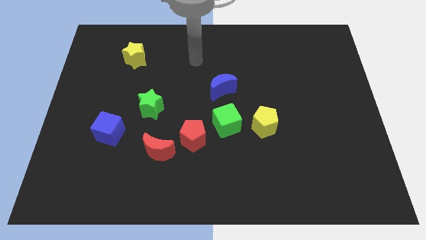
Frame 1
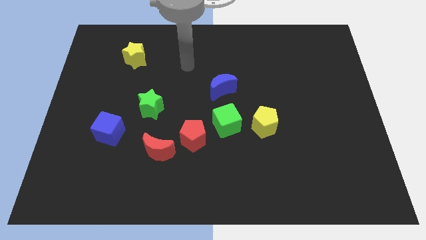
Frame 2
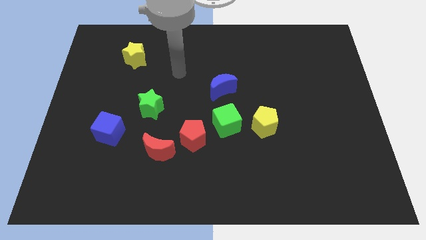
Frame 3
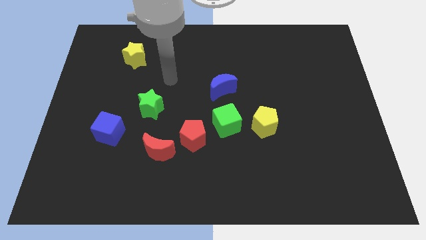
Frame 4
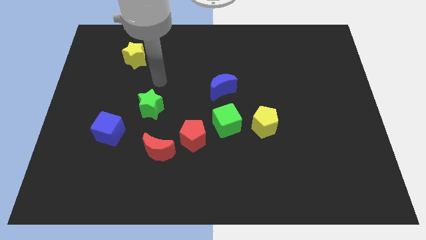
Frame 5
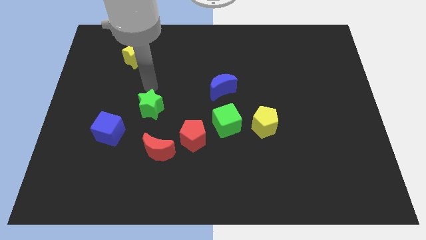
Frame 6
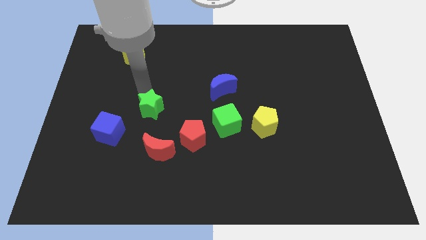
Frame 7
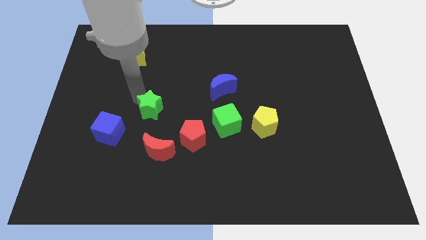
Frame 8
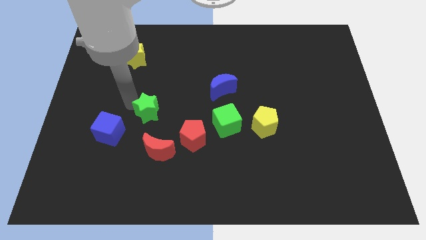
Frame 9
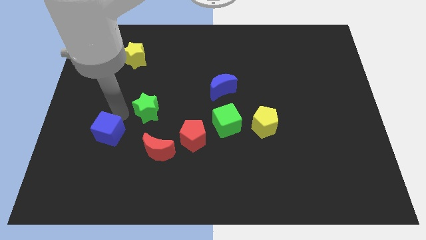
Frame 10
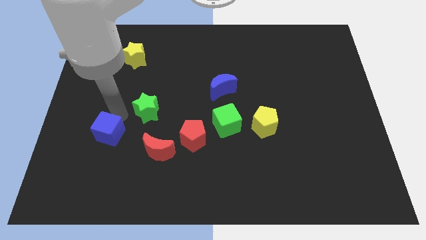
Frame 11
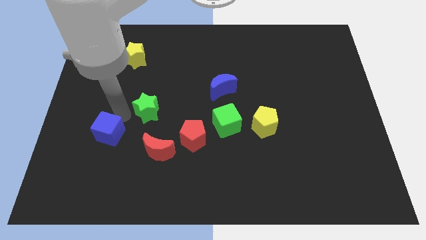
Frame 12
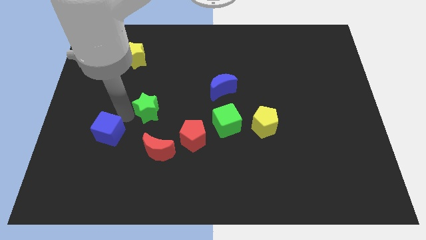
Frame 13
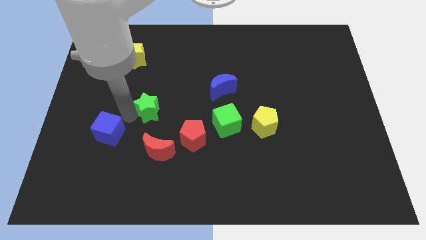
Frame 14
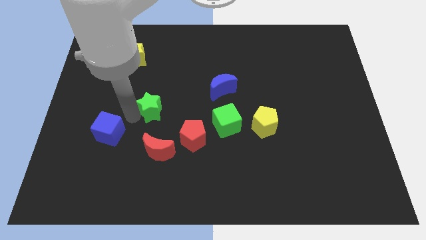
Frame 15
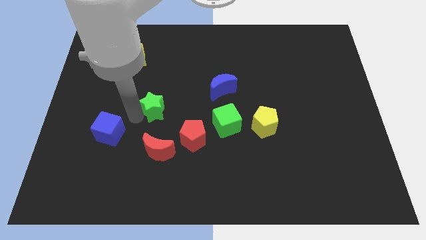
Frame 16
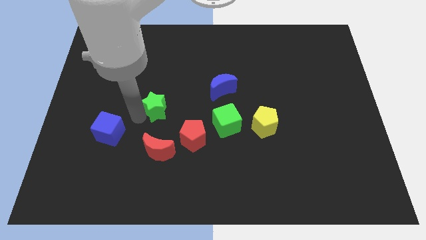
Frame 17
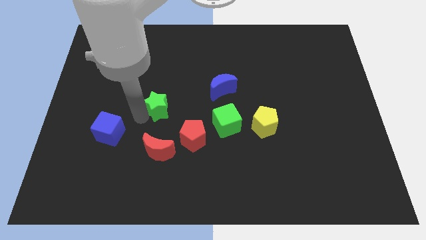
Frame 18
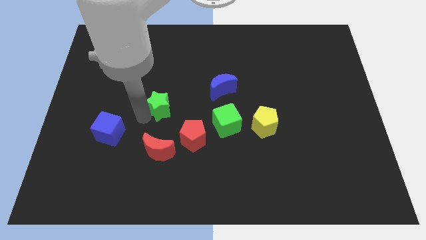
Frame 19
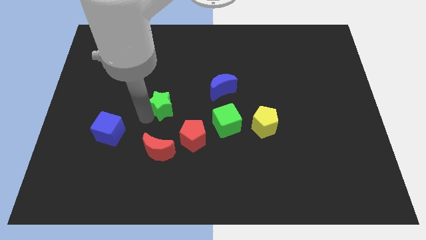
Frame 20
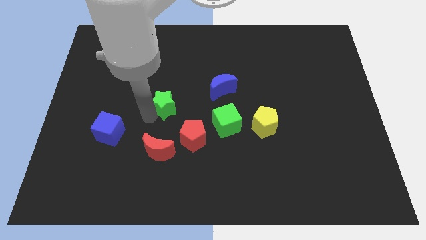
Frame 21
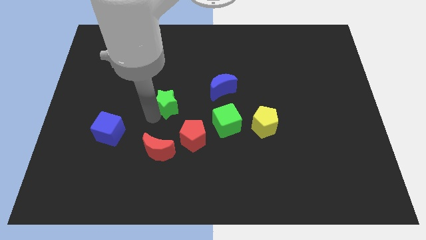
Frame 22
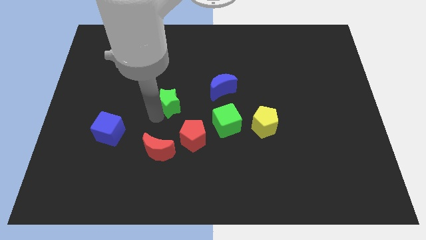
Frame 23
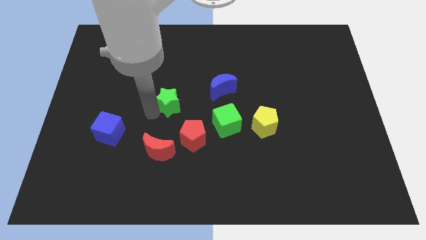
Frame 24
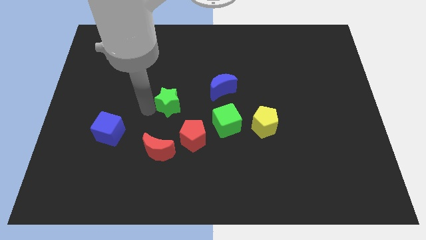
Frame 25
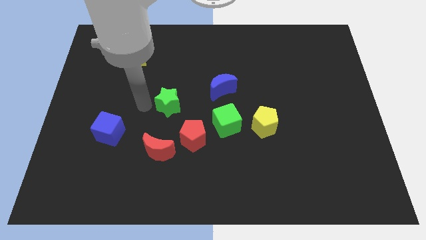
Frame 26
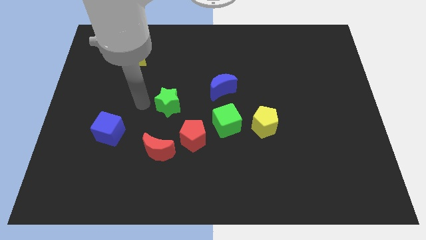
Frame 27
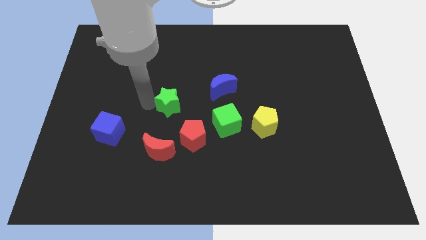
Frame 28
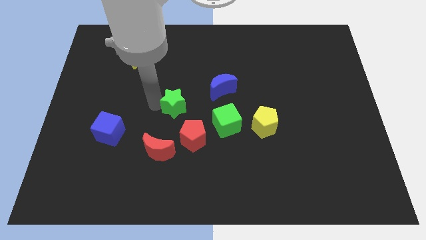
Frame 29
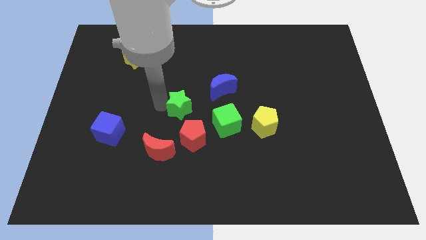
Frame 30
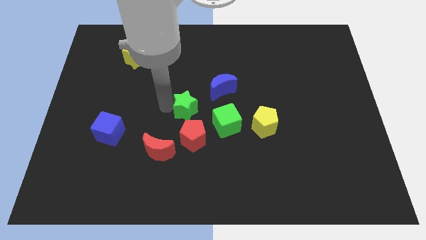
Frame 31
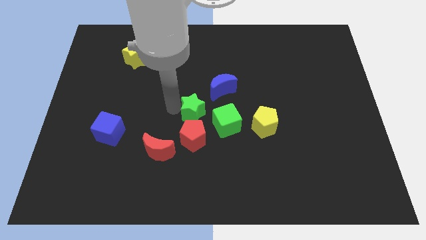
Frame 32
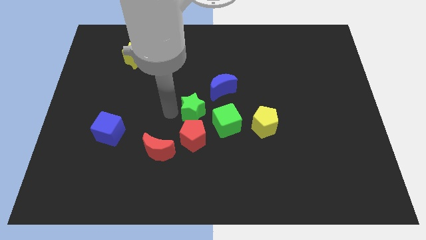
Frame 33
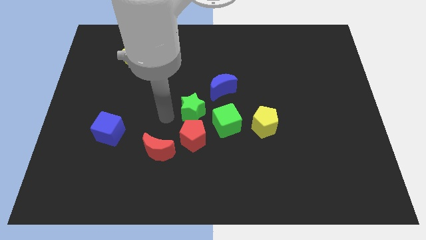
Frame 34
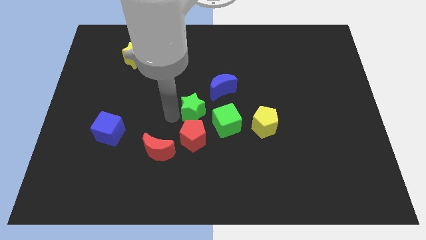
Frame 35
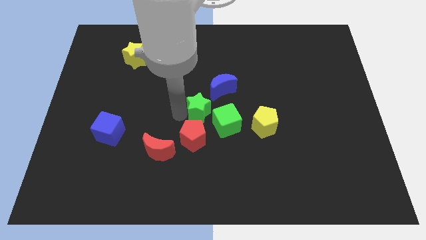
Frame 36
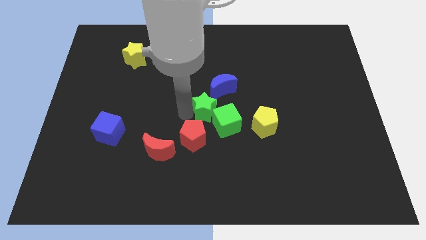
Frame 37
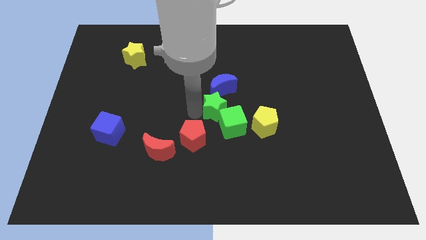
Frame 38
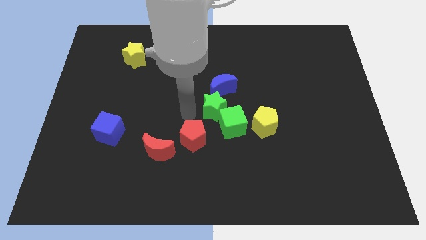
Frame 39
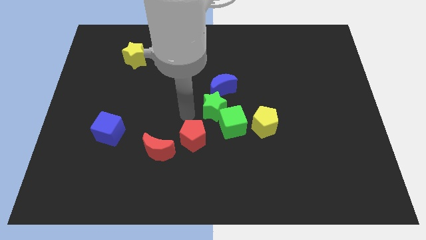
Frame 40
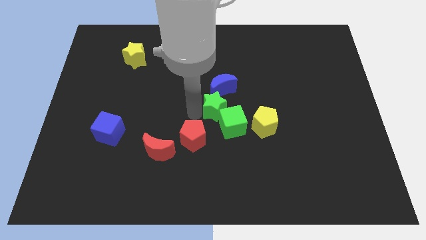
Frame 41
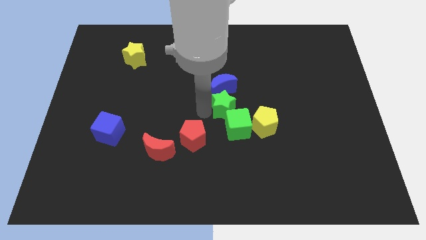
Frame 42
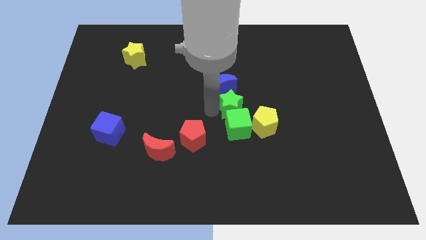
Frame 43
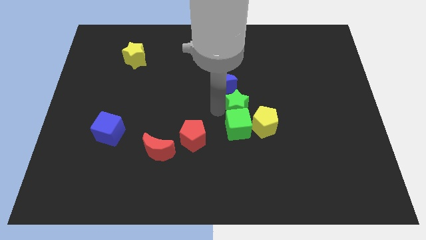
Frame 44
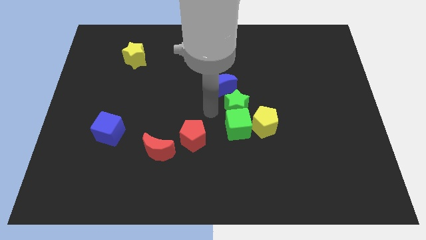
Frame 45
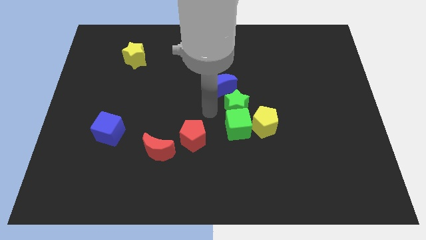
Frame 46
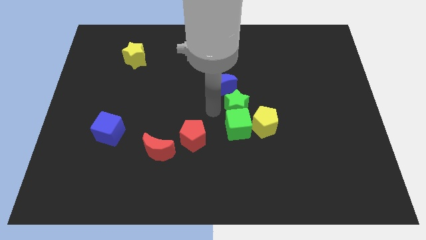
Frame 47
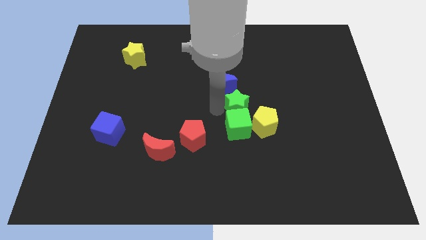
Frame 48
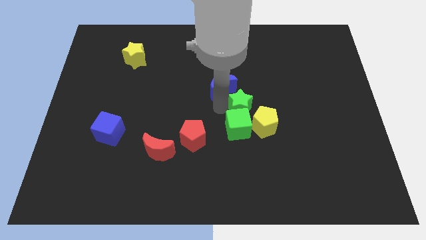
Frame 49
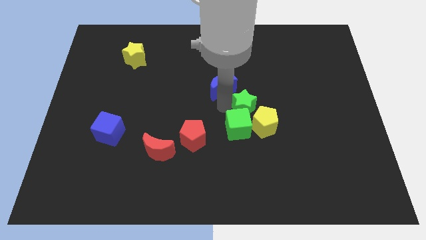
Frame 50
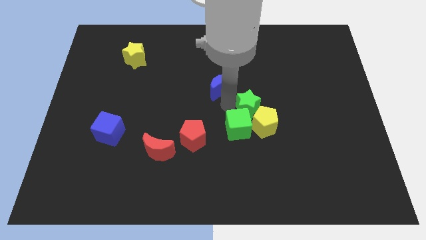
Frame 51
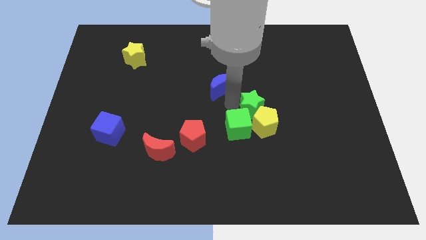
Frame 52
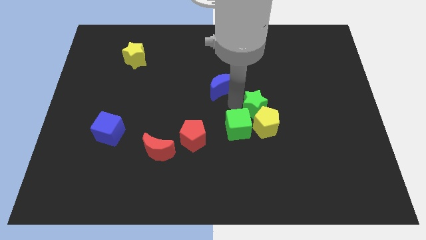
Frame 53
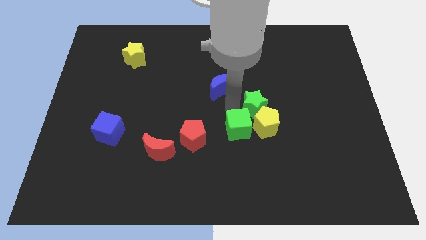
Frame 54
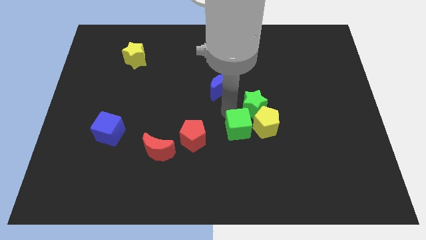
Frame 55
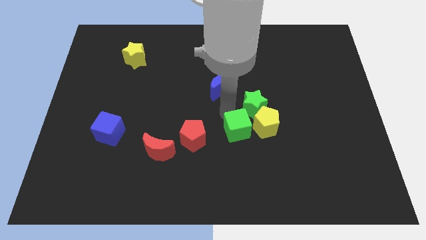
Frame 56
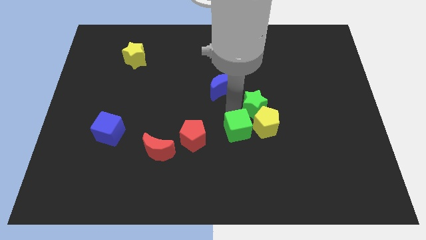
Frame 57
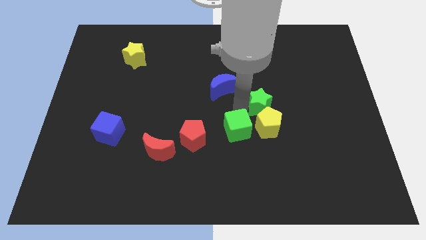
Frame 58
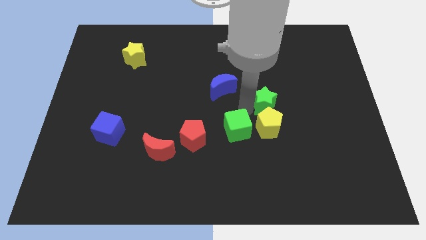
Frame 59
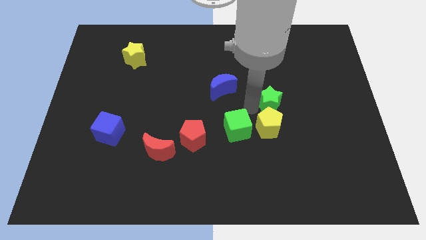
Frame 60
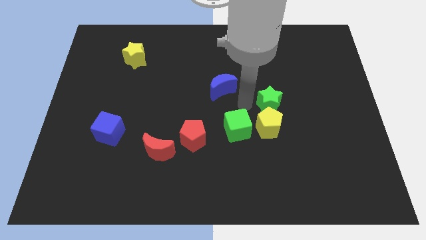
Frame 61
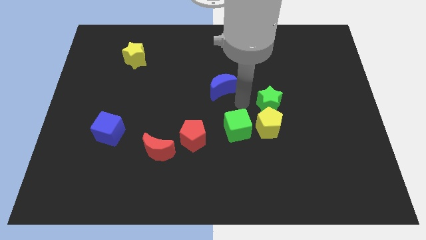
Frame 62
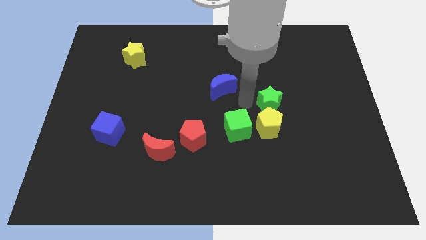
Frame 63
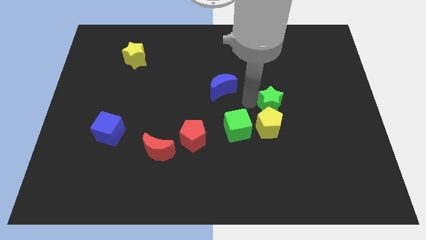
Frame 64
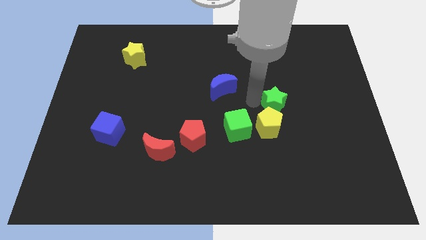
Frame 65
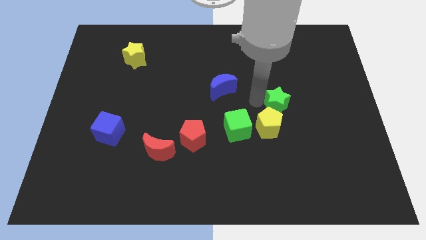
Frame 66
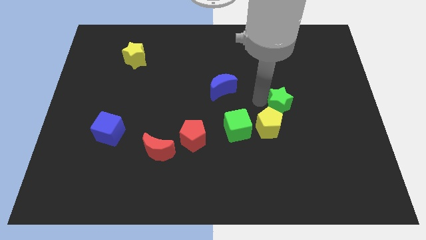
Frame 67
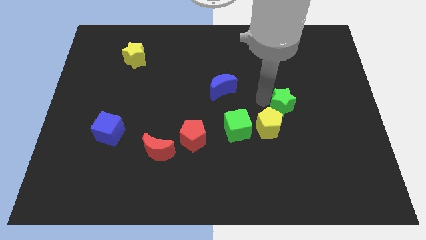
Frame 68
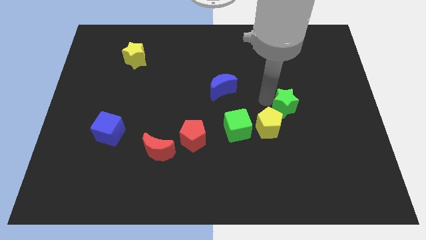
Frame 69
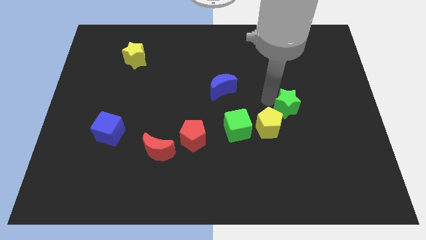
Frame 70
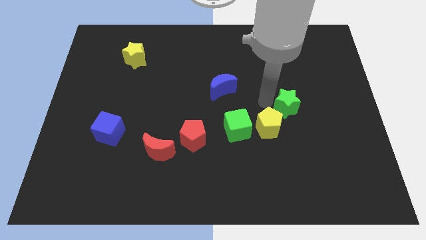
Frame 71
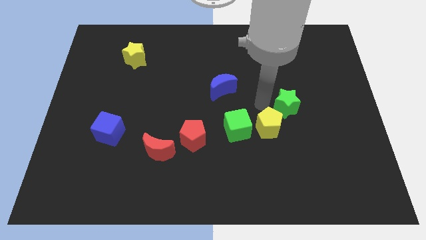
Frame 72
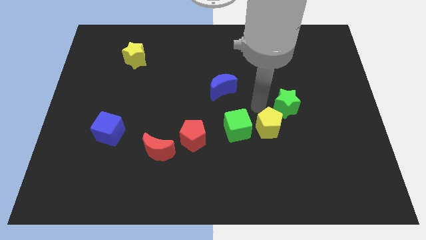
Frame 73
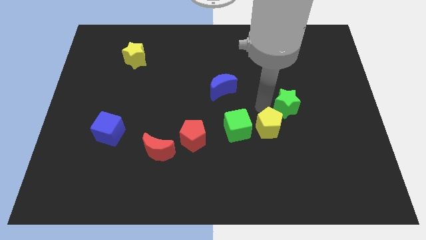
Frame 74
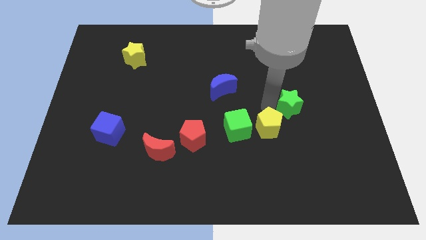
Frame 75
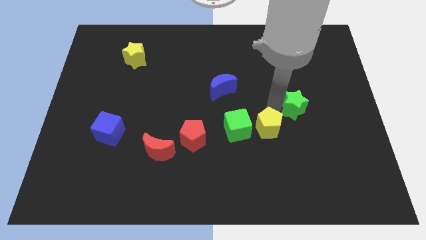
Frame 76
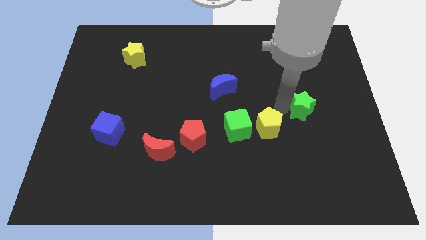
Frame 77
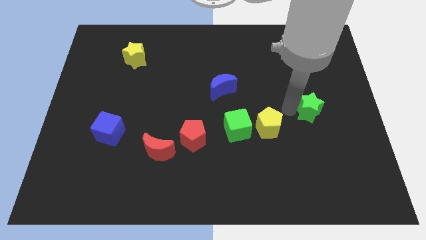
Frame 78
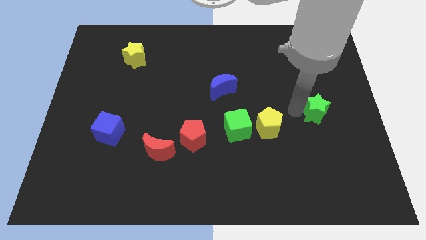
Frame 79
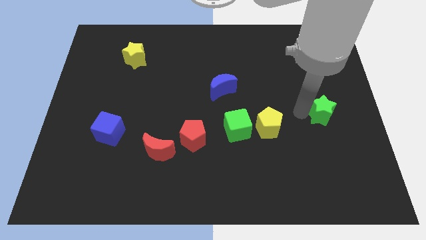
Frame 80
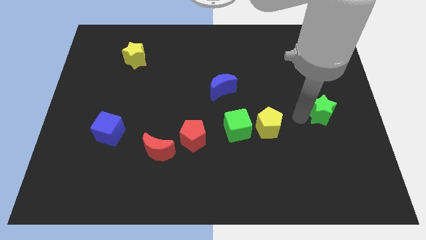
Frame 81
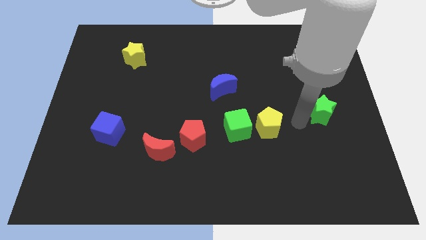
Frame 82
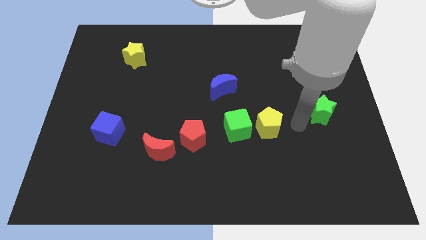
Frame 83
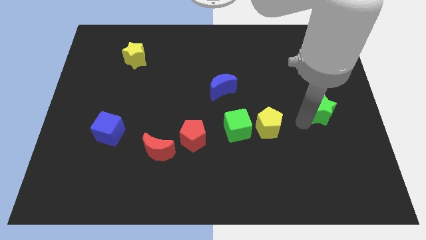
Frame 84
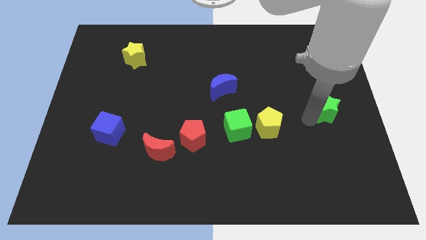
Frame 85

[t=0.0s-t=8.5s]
slide the green star to the center right
